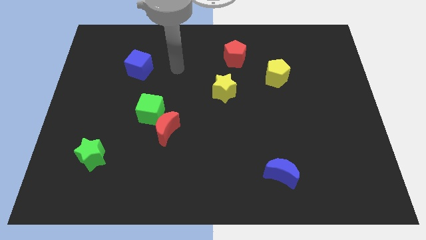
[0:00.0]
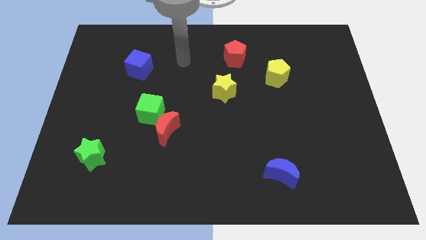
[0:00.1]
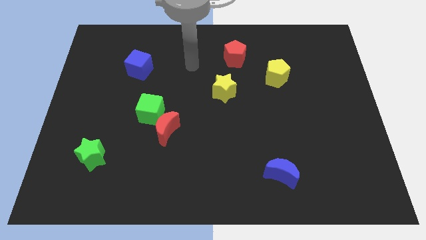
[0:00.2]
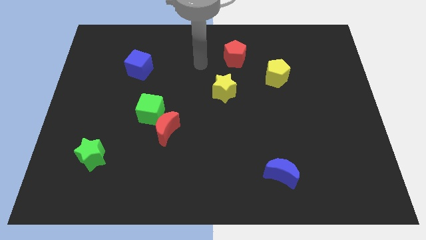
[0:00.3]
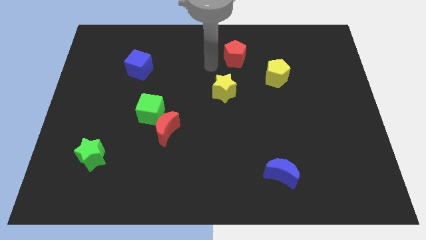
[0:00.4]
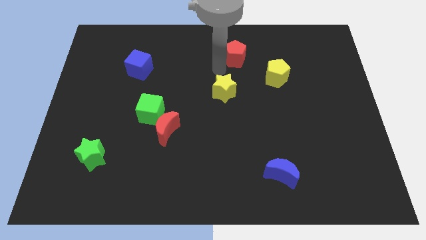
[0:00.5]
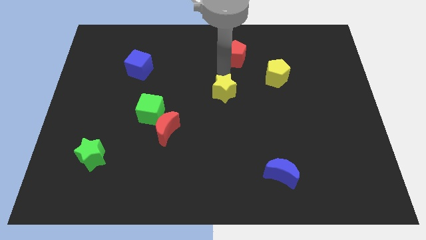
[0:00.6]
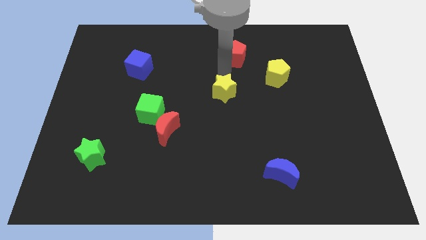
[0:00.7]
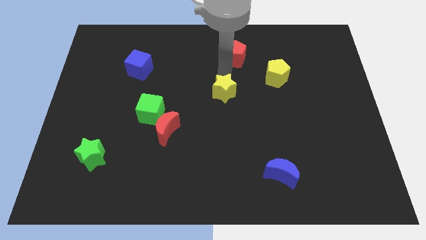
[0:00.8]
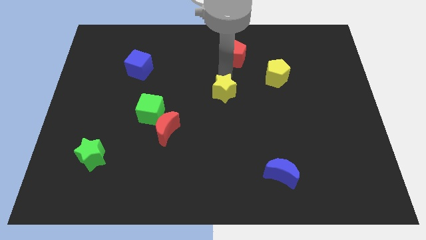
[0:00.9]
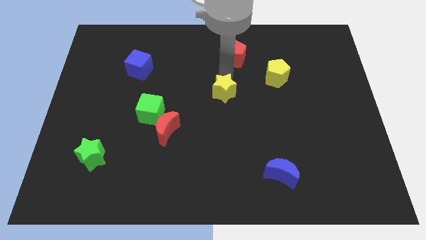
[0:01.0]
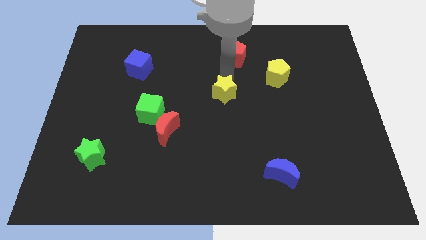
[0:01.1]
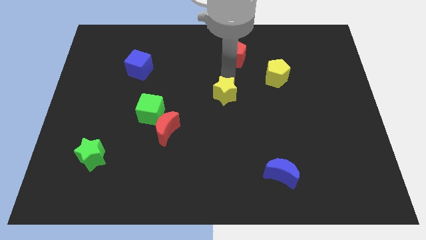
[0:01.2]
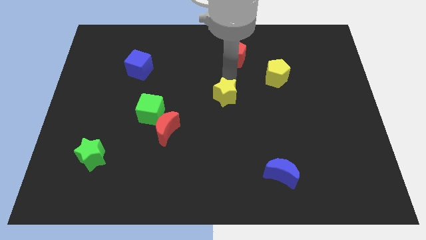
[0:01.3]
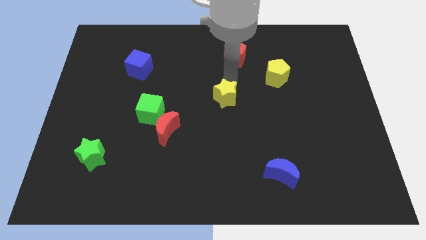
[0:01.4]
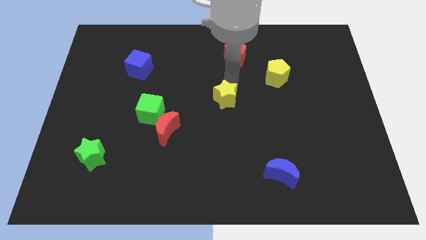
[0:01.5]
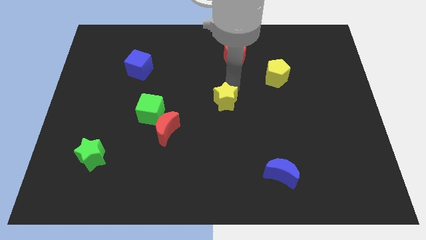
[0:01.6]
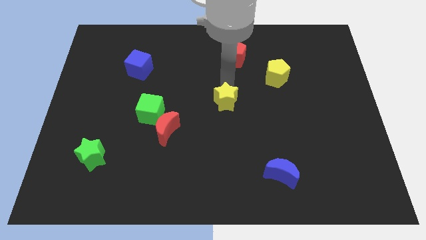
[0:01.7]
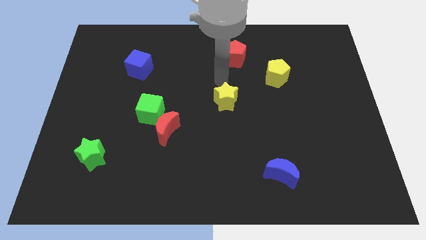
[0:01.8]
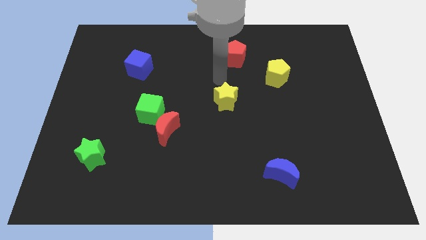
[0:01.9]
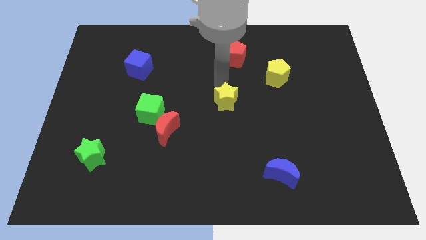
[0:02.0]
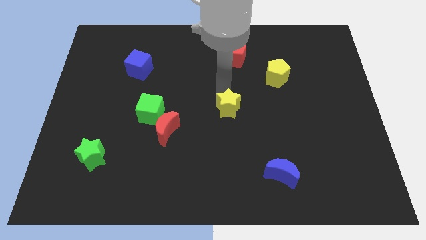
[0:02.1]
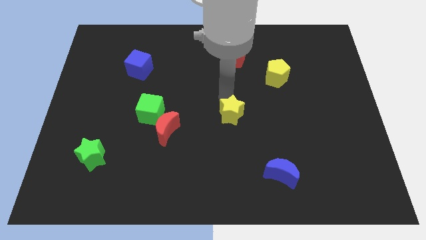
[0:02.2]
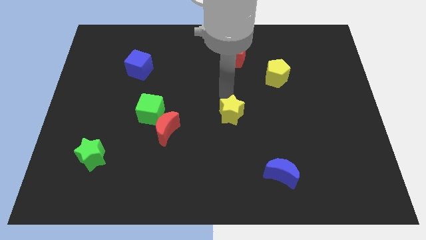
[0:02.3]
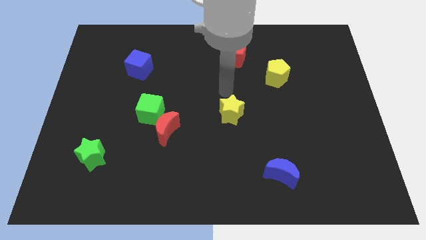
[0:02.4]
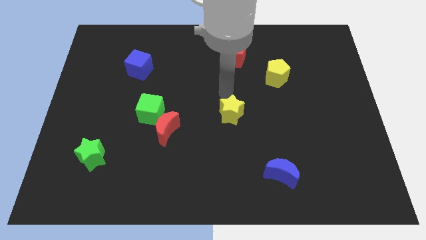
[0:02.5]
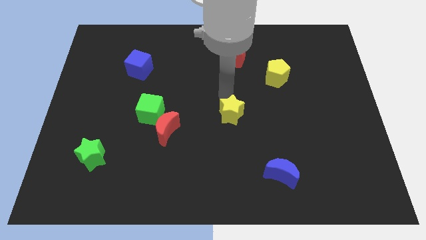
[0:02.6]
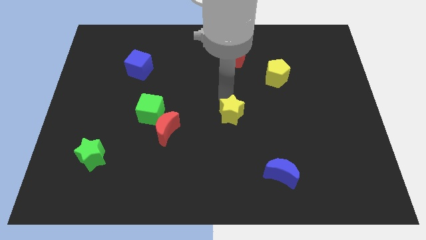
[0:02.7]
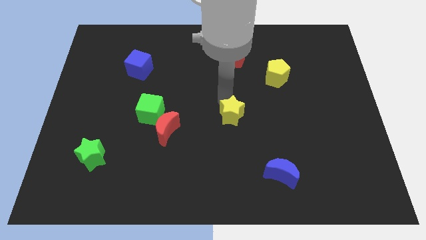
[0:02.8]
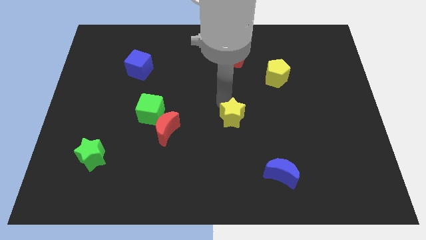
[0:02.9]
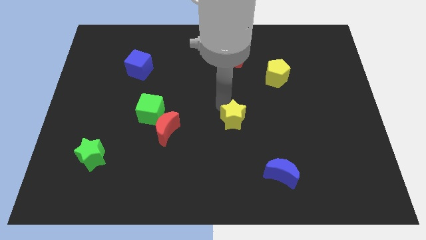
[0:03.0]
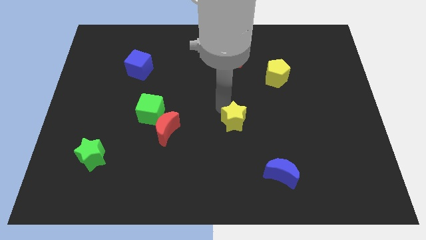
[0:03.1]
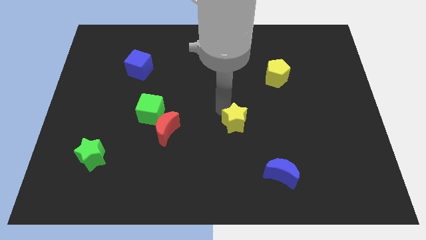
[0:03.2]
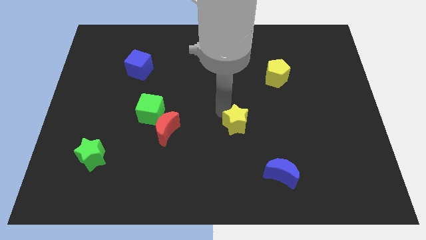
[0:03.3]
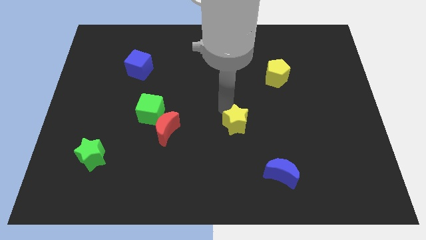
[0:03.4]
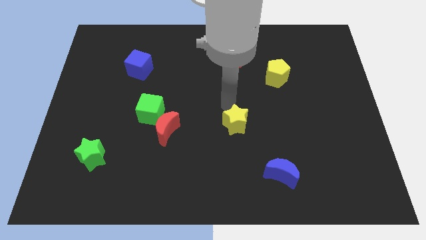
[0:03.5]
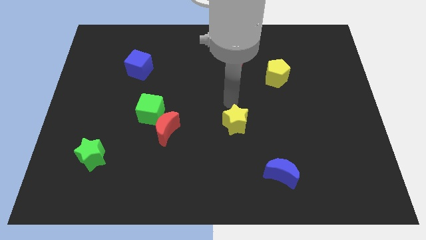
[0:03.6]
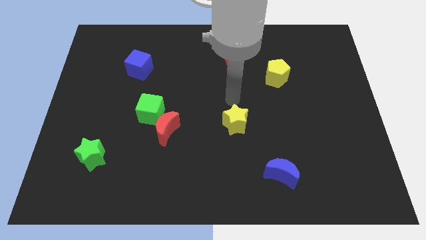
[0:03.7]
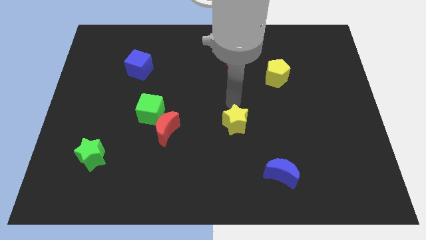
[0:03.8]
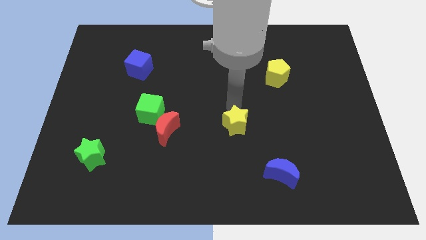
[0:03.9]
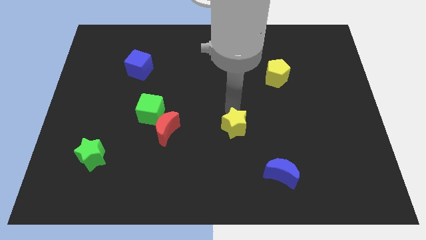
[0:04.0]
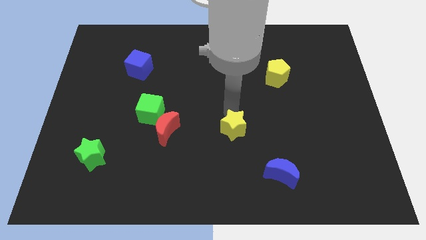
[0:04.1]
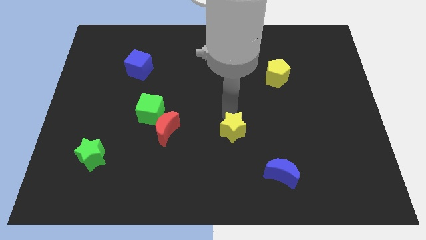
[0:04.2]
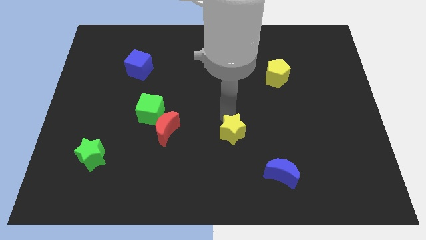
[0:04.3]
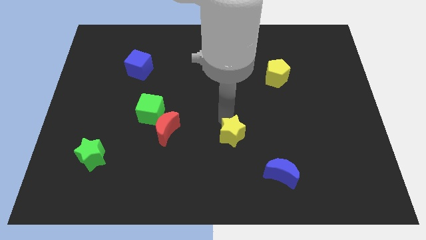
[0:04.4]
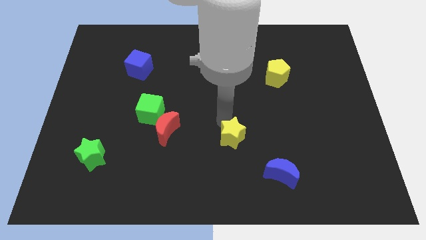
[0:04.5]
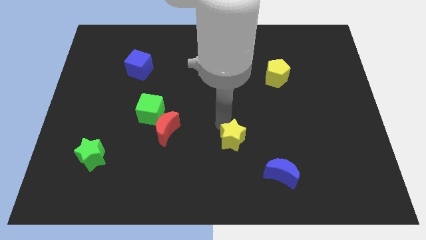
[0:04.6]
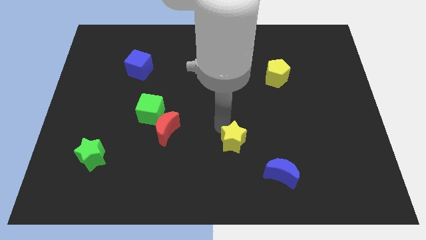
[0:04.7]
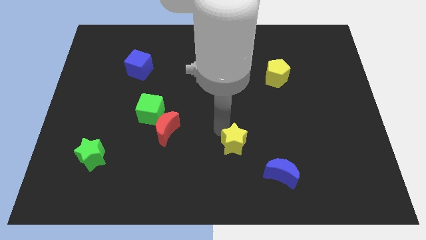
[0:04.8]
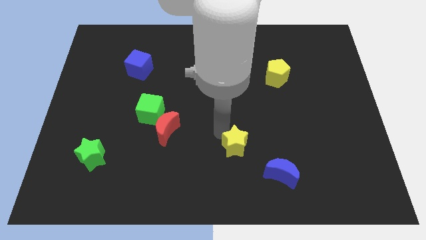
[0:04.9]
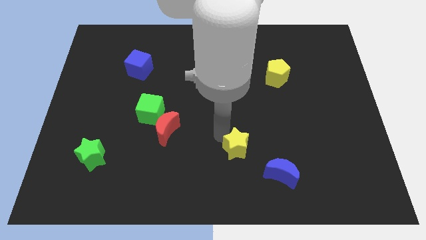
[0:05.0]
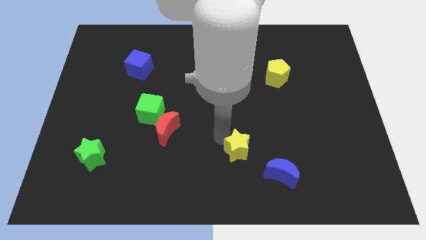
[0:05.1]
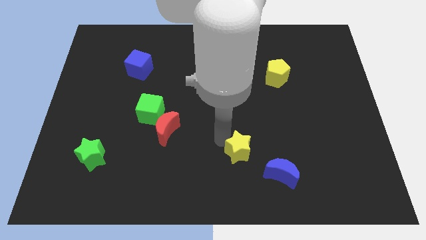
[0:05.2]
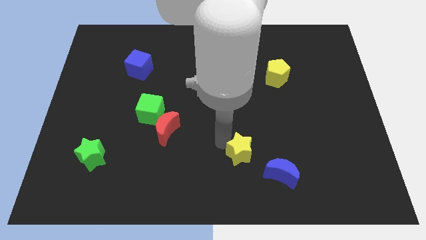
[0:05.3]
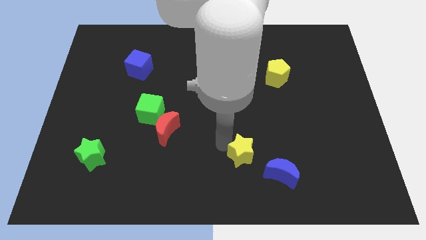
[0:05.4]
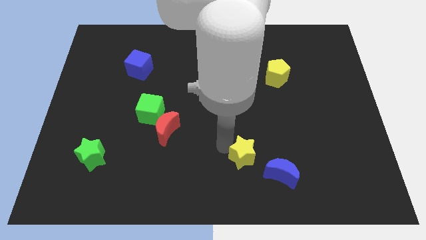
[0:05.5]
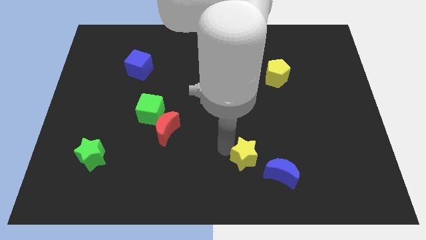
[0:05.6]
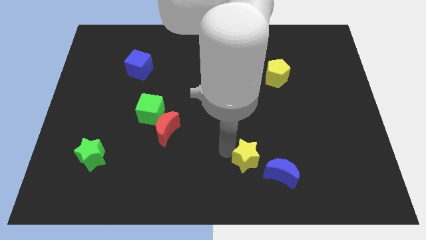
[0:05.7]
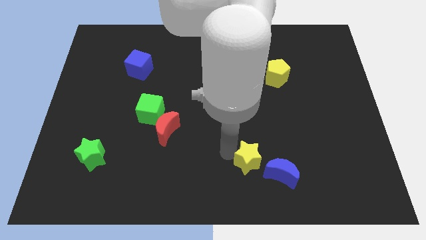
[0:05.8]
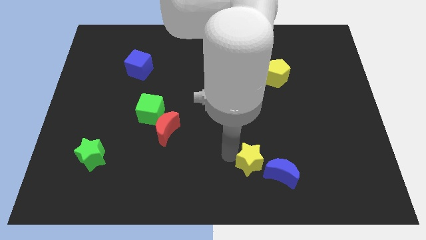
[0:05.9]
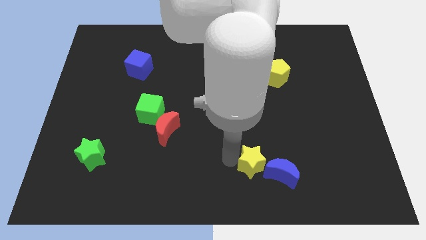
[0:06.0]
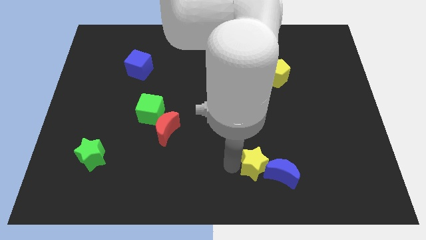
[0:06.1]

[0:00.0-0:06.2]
slide the yellow star next to the blue moon

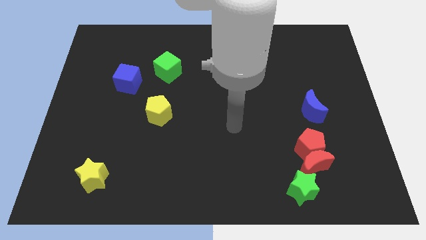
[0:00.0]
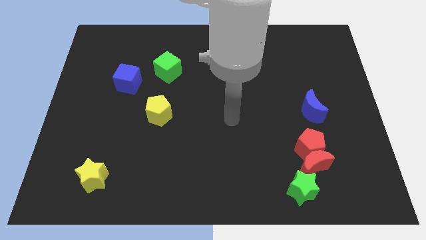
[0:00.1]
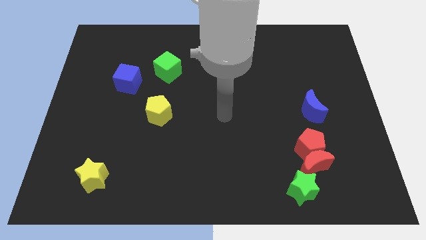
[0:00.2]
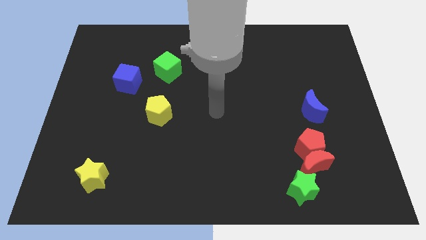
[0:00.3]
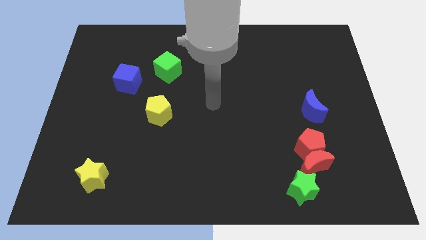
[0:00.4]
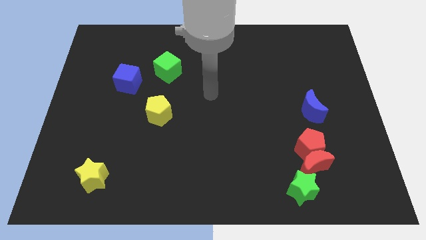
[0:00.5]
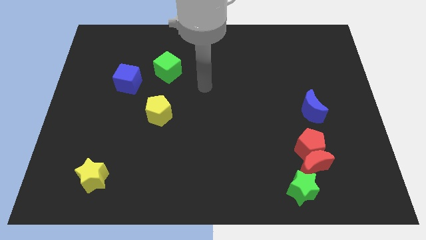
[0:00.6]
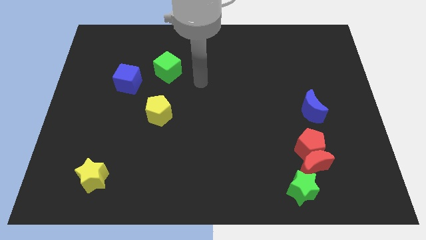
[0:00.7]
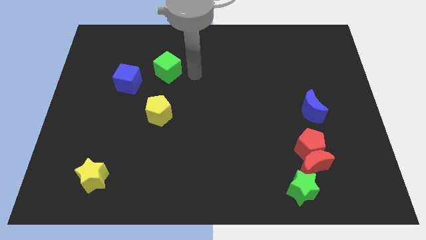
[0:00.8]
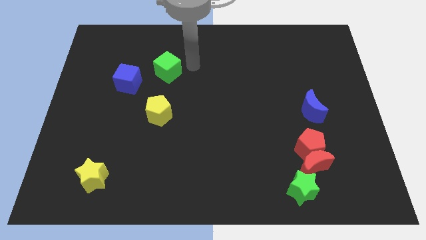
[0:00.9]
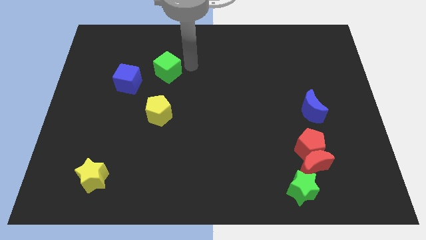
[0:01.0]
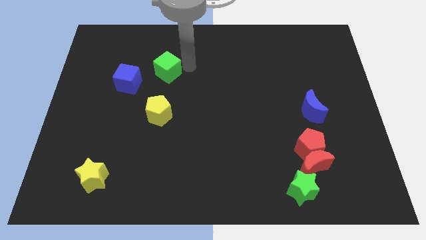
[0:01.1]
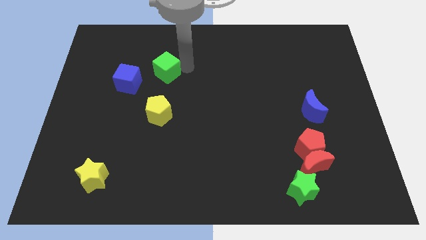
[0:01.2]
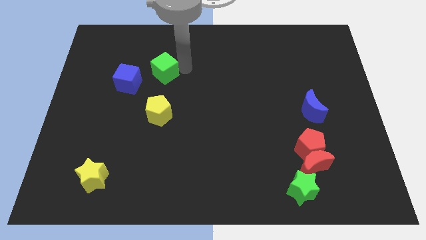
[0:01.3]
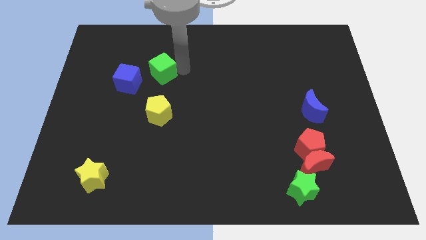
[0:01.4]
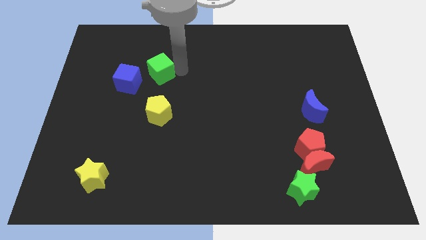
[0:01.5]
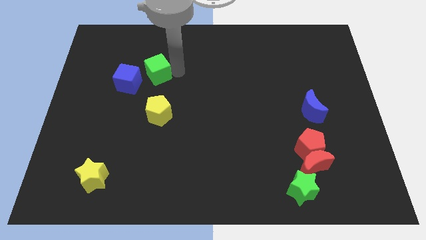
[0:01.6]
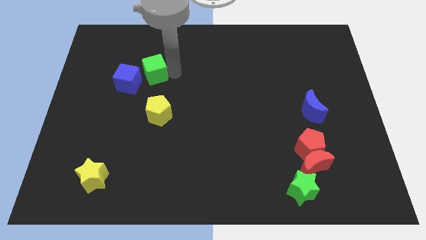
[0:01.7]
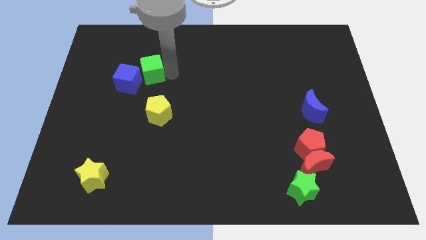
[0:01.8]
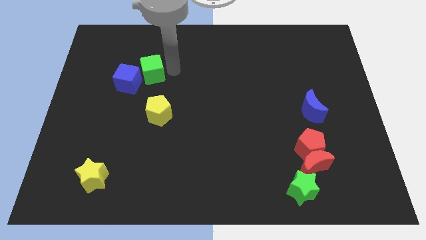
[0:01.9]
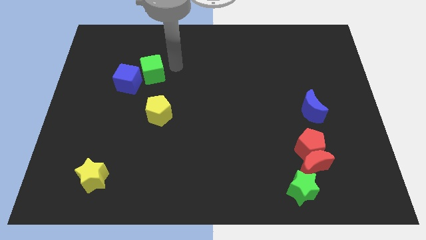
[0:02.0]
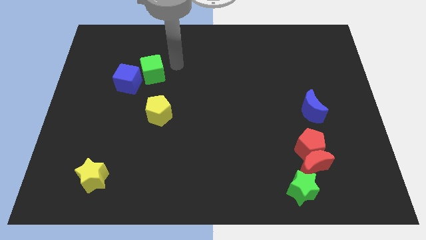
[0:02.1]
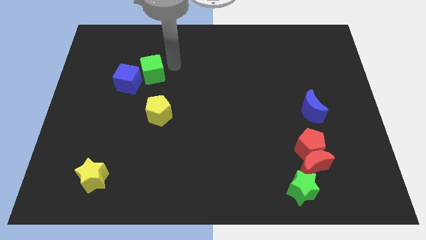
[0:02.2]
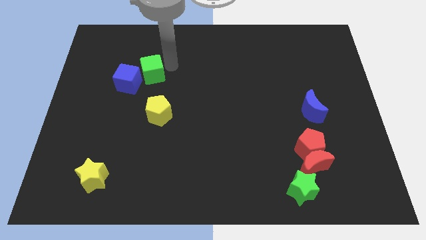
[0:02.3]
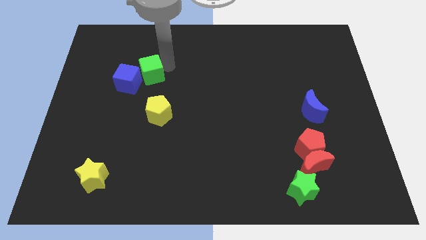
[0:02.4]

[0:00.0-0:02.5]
slide the green cube close to the blue cube
